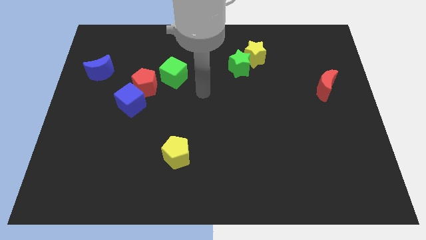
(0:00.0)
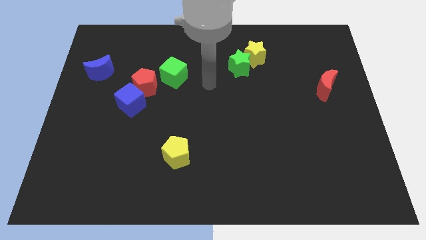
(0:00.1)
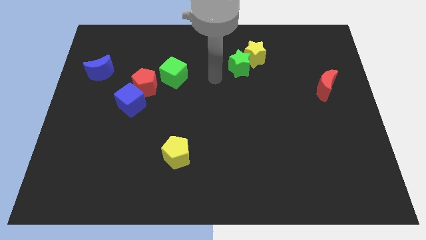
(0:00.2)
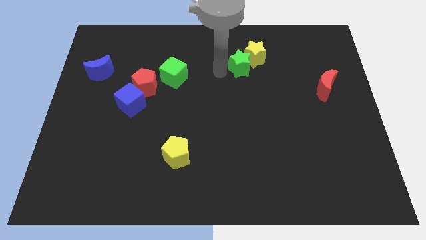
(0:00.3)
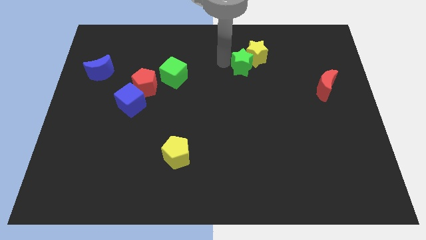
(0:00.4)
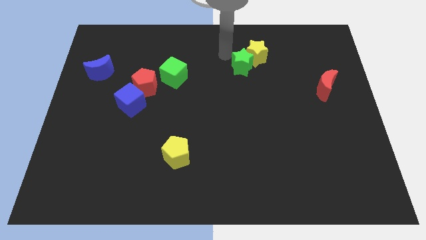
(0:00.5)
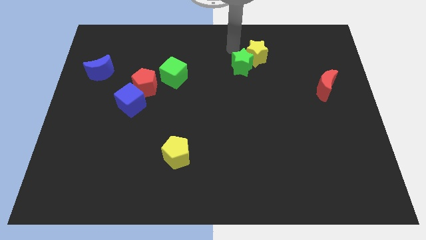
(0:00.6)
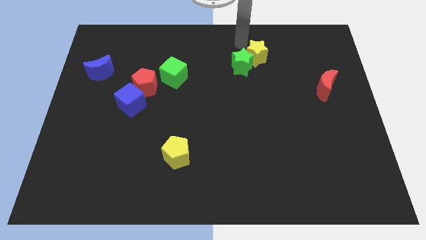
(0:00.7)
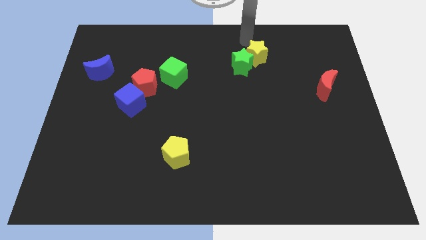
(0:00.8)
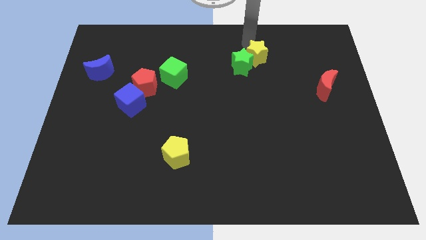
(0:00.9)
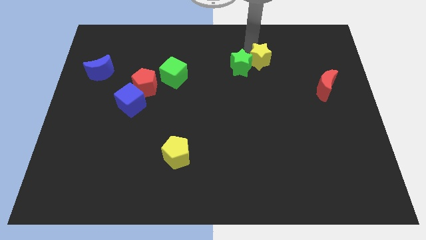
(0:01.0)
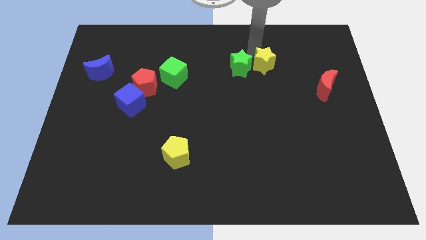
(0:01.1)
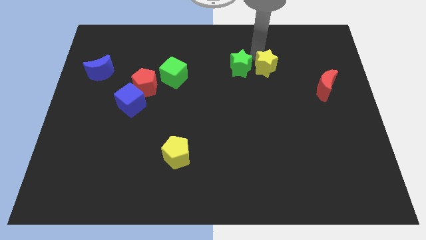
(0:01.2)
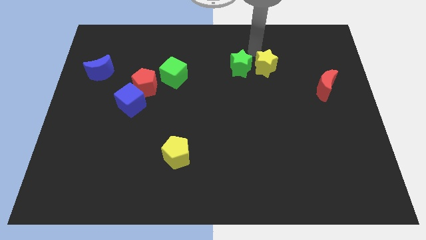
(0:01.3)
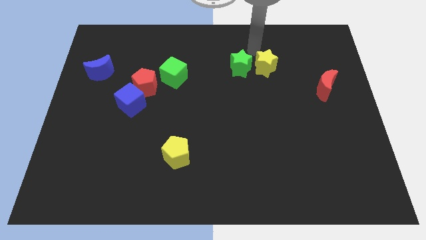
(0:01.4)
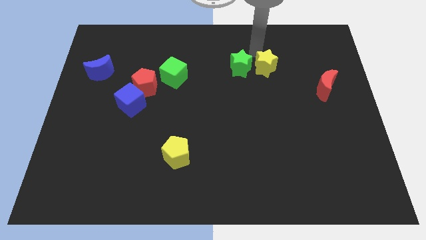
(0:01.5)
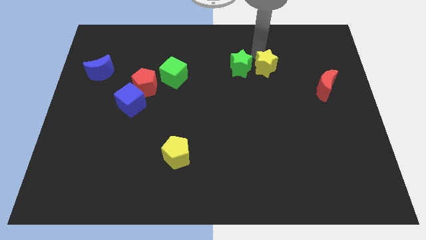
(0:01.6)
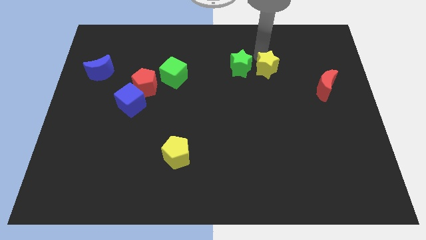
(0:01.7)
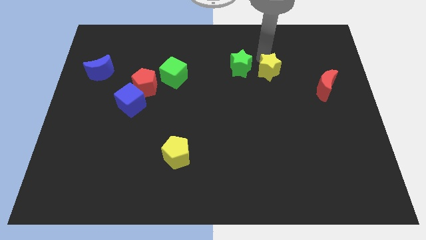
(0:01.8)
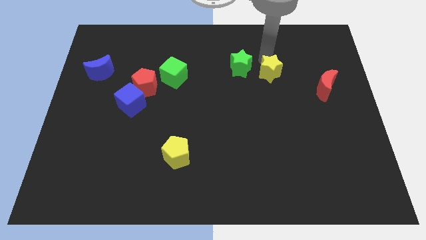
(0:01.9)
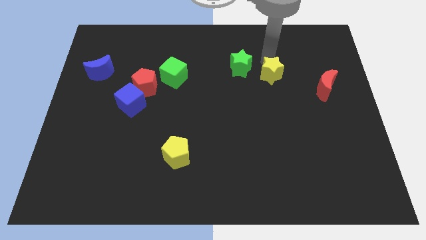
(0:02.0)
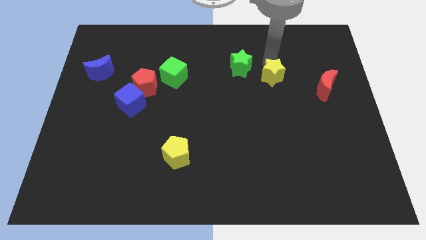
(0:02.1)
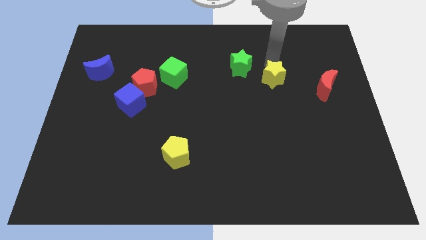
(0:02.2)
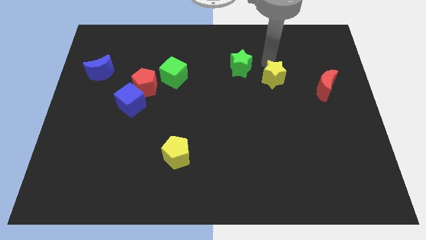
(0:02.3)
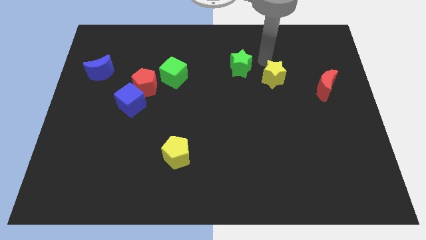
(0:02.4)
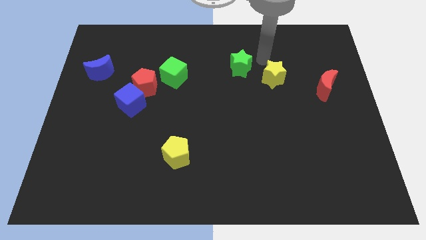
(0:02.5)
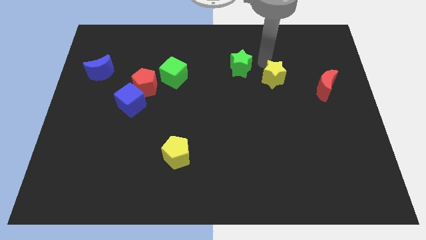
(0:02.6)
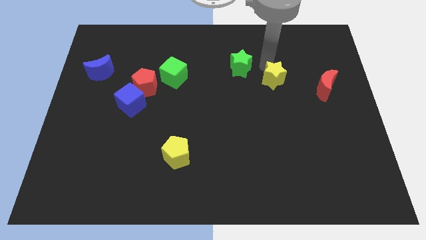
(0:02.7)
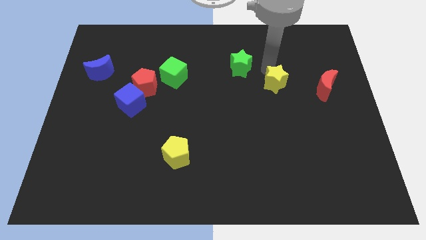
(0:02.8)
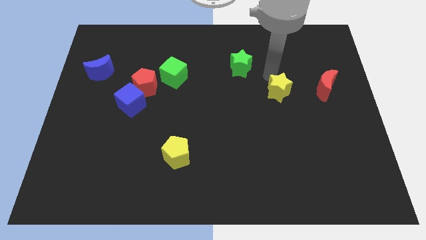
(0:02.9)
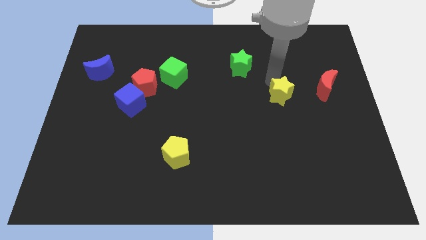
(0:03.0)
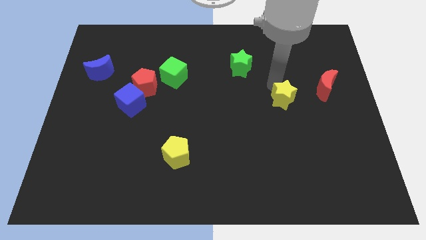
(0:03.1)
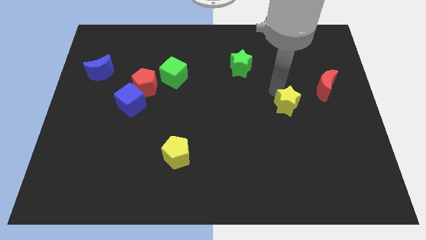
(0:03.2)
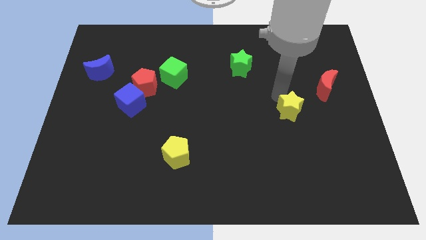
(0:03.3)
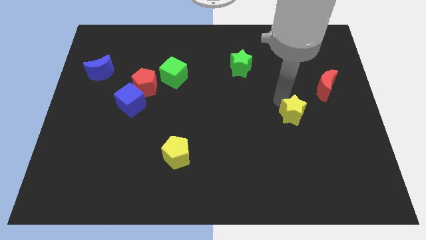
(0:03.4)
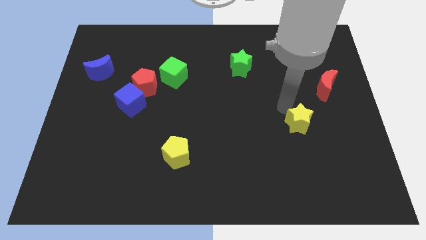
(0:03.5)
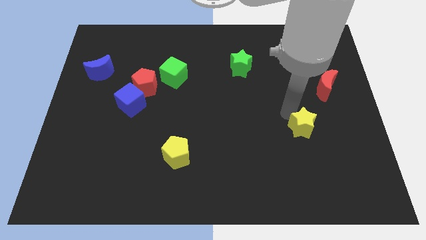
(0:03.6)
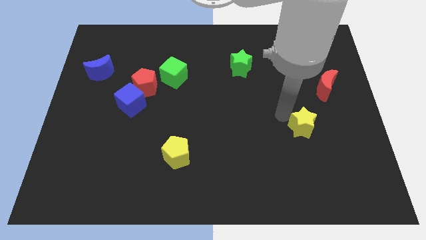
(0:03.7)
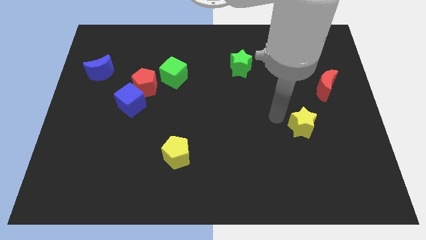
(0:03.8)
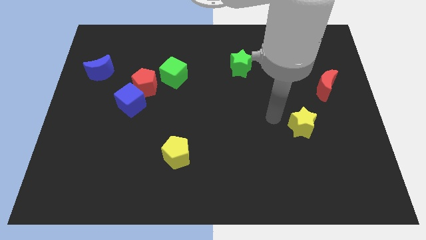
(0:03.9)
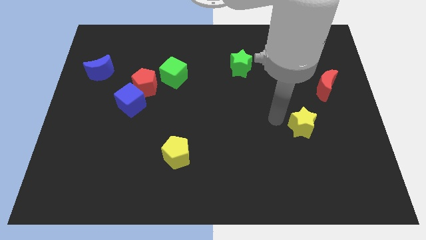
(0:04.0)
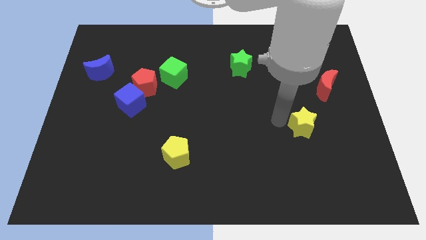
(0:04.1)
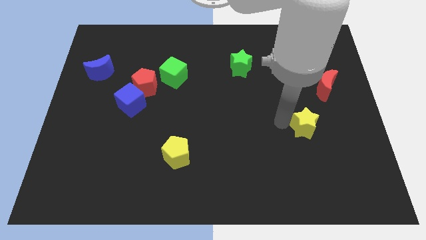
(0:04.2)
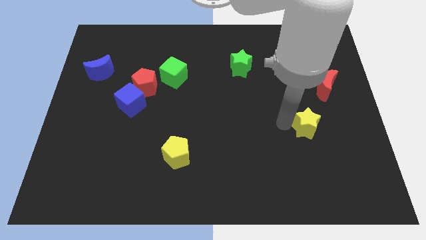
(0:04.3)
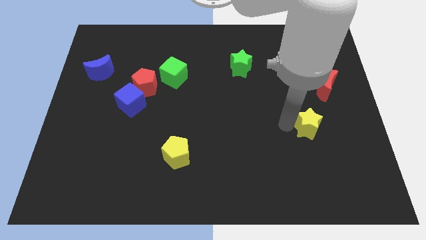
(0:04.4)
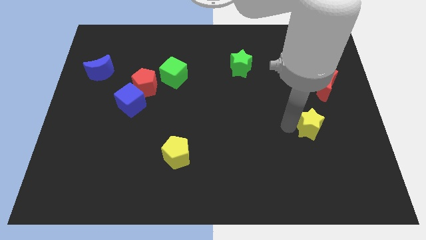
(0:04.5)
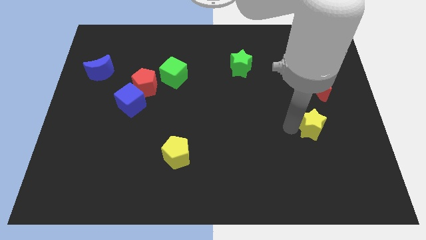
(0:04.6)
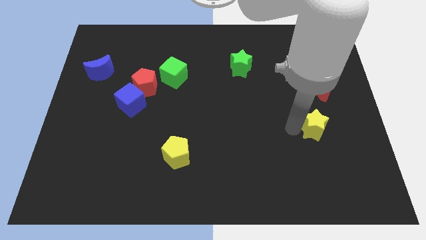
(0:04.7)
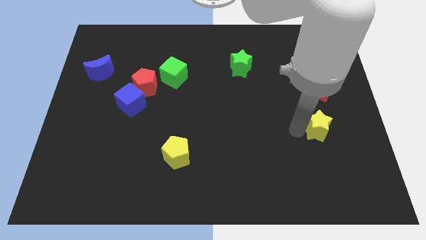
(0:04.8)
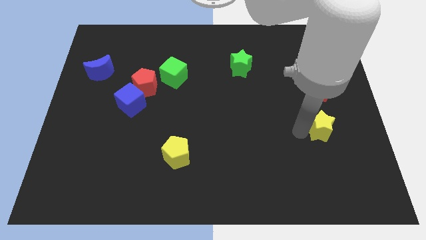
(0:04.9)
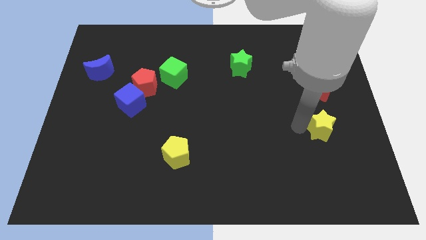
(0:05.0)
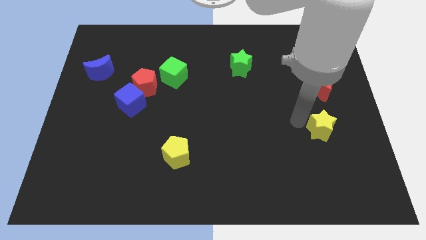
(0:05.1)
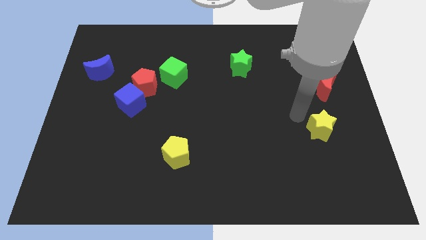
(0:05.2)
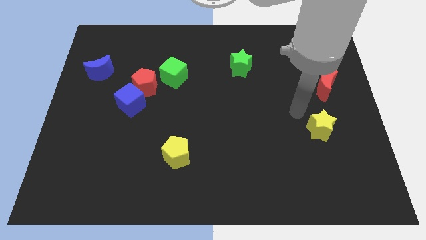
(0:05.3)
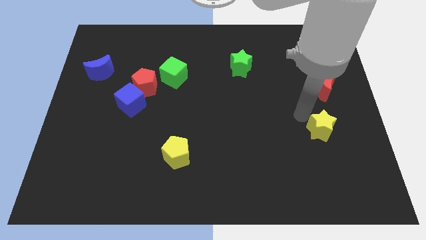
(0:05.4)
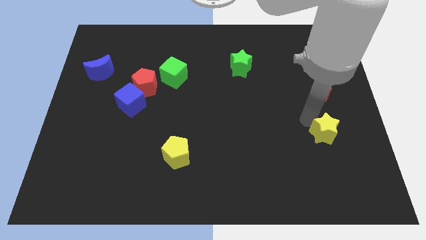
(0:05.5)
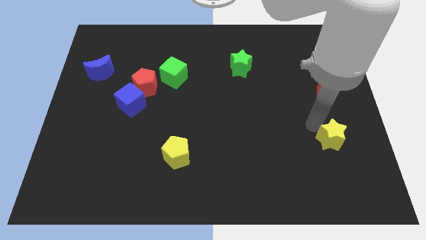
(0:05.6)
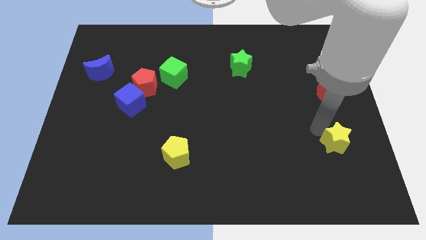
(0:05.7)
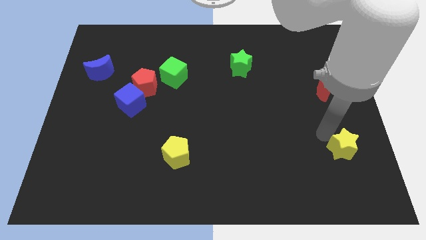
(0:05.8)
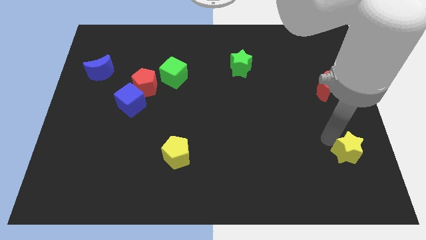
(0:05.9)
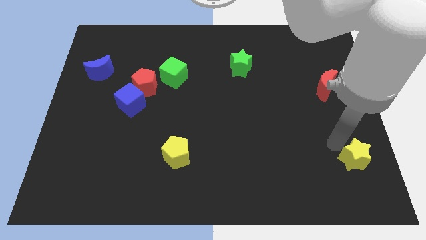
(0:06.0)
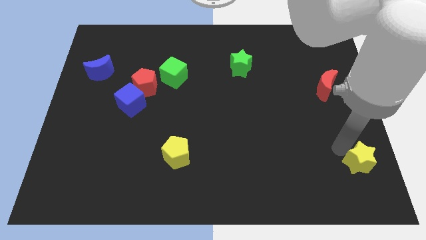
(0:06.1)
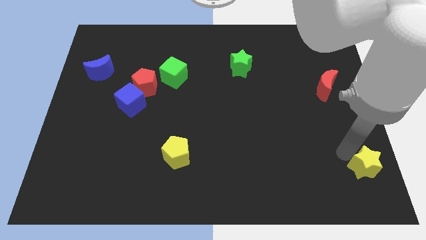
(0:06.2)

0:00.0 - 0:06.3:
push the yellow star to the bottom right of the board

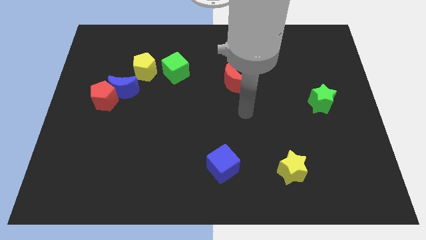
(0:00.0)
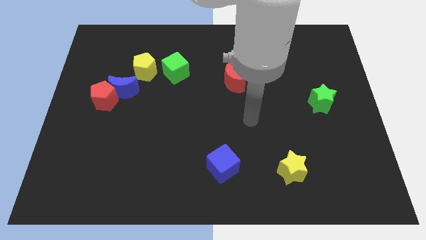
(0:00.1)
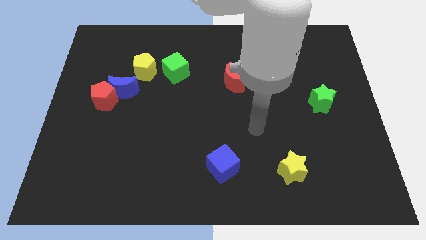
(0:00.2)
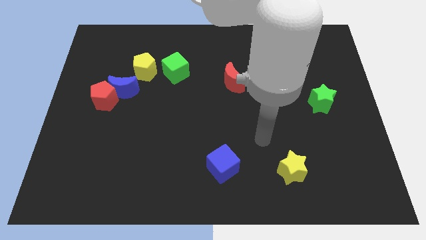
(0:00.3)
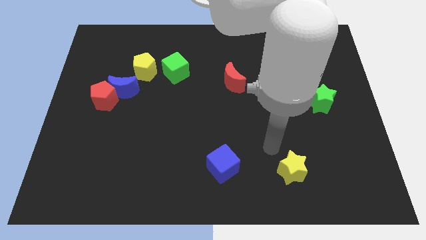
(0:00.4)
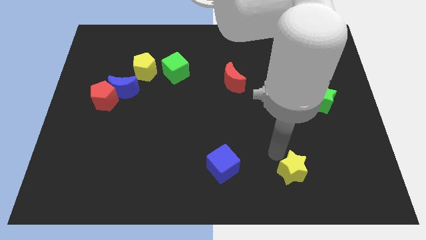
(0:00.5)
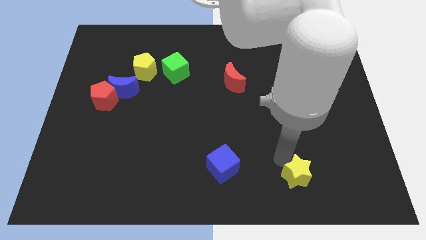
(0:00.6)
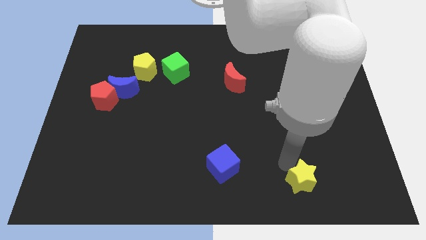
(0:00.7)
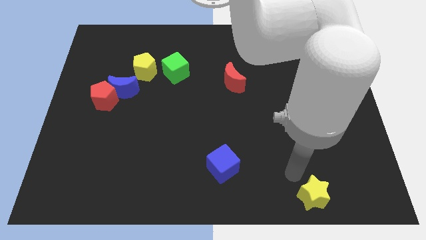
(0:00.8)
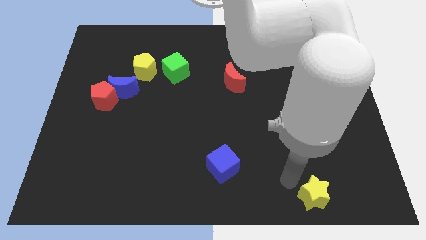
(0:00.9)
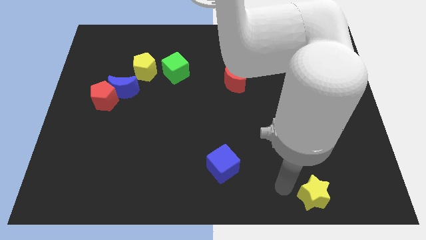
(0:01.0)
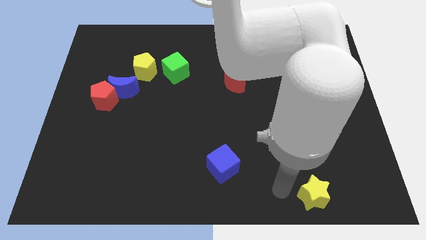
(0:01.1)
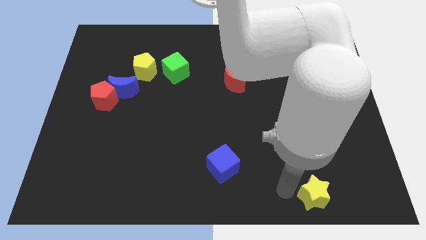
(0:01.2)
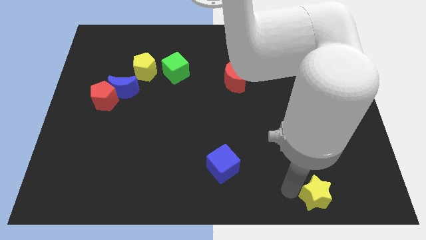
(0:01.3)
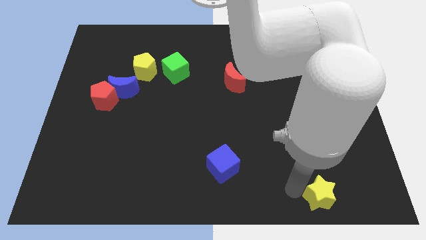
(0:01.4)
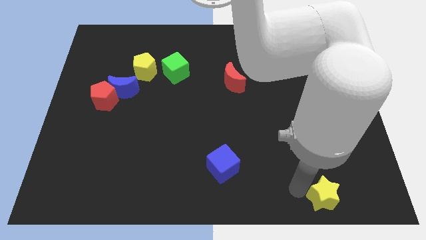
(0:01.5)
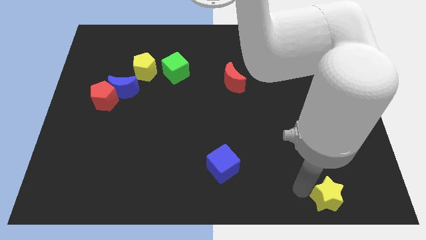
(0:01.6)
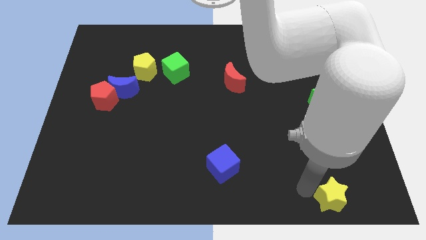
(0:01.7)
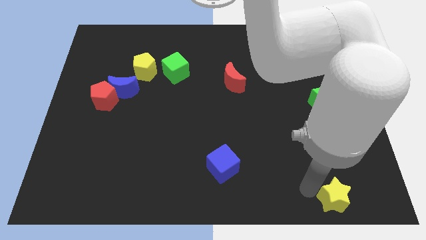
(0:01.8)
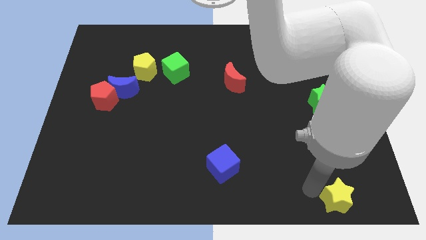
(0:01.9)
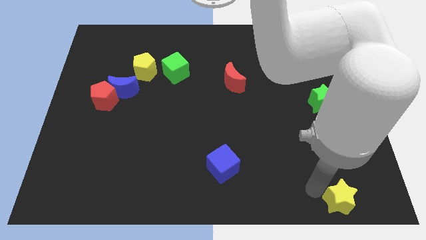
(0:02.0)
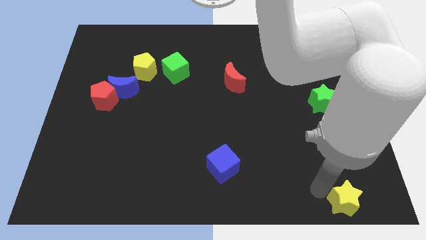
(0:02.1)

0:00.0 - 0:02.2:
slide the yellow star to the lower right corner
